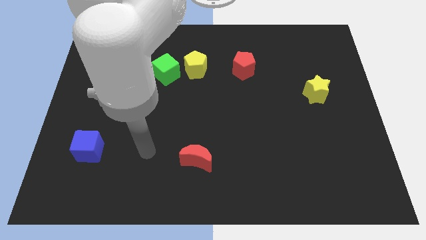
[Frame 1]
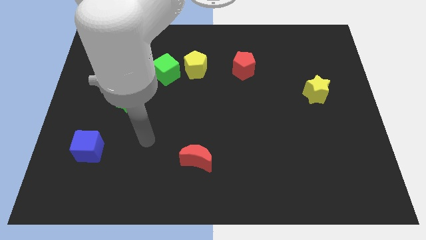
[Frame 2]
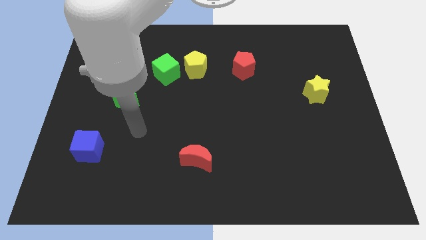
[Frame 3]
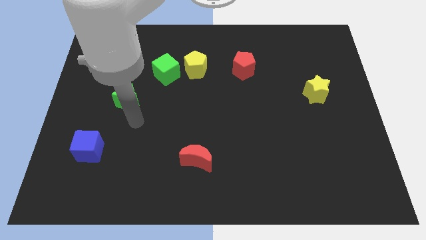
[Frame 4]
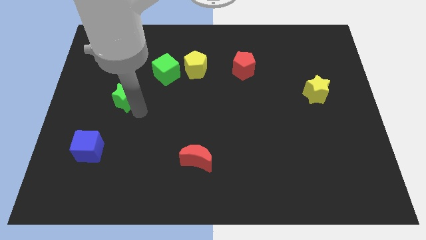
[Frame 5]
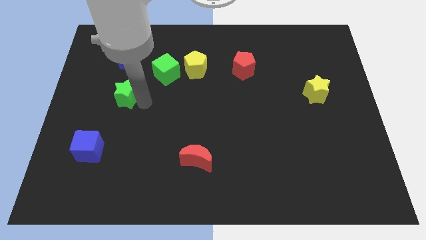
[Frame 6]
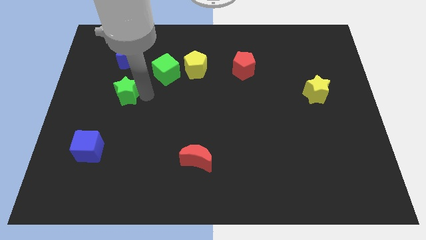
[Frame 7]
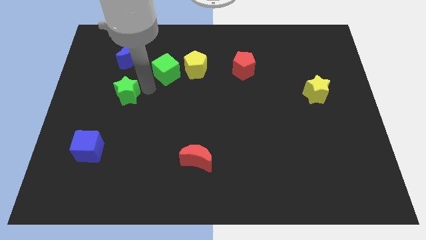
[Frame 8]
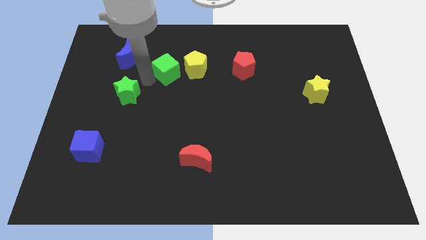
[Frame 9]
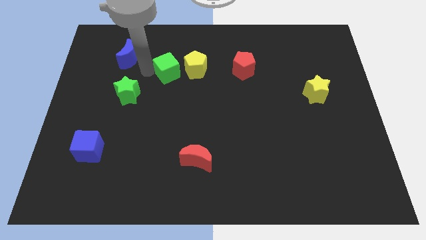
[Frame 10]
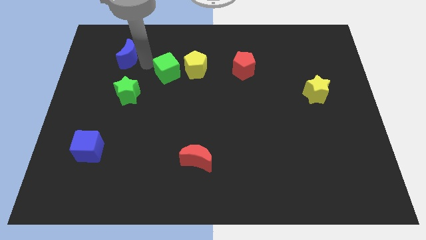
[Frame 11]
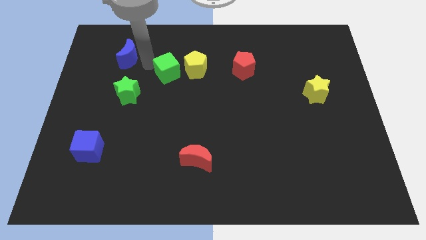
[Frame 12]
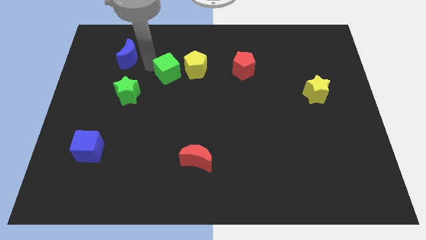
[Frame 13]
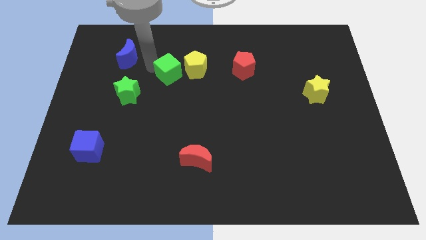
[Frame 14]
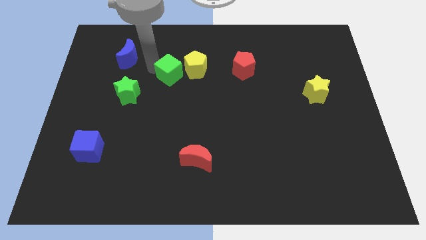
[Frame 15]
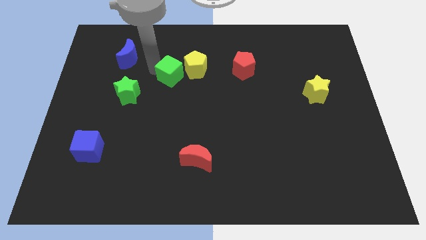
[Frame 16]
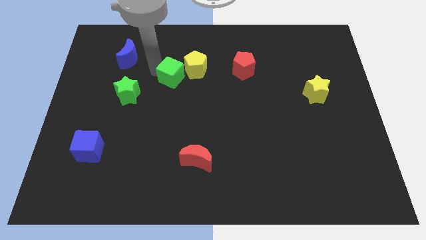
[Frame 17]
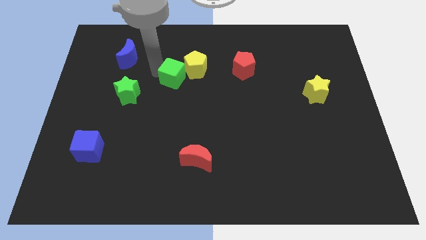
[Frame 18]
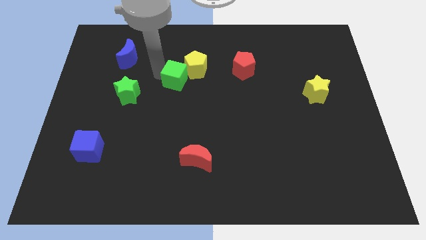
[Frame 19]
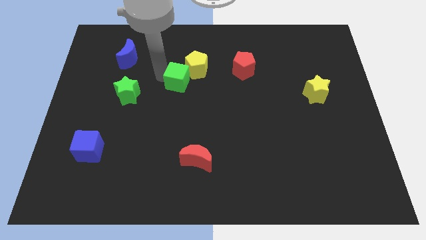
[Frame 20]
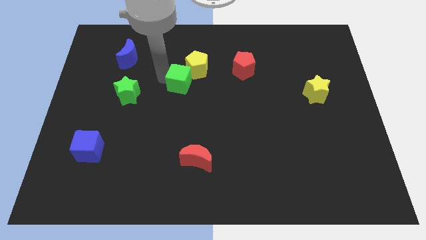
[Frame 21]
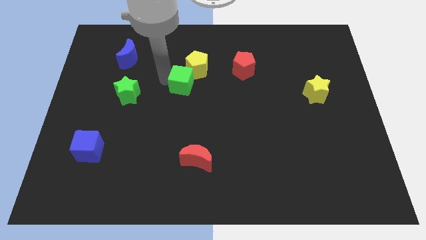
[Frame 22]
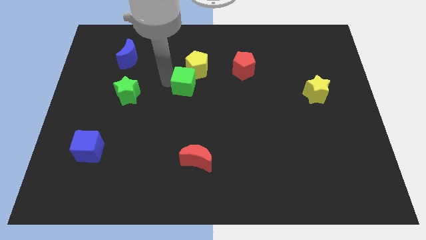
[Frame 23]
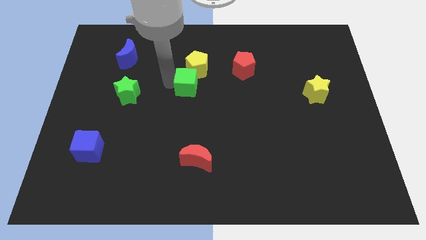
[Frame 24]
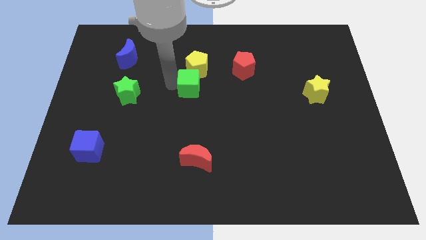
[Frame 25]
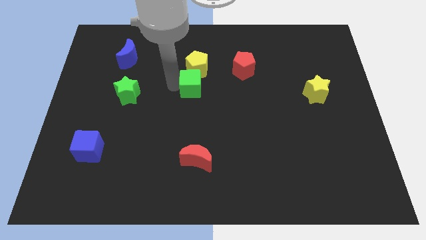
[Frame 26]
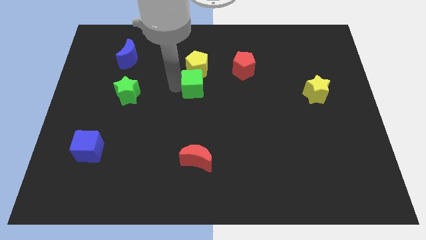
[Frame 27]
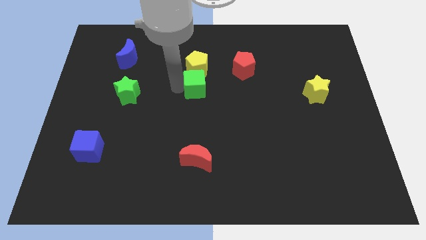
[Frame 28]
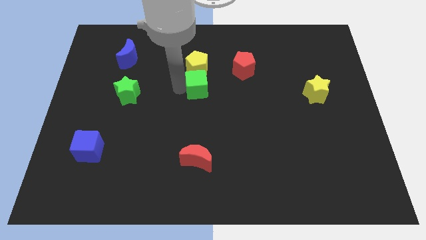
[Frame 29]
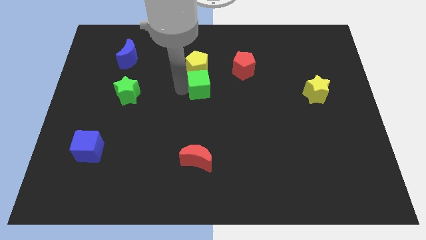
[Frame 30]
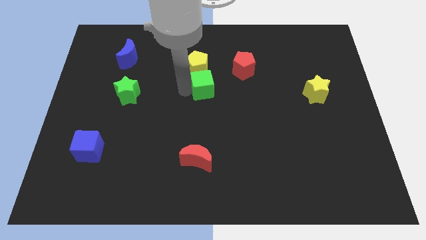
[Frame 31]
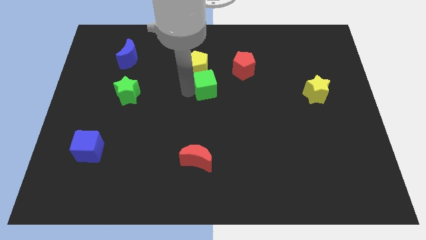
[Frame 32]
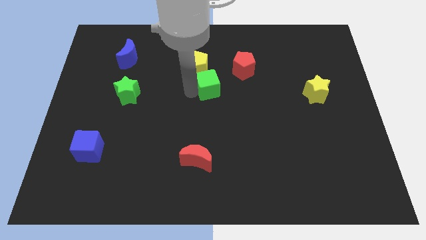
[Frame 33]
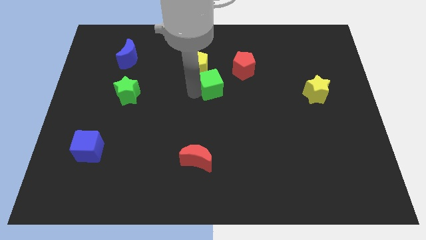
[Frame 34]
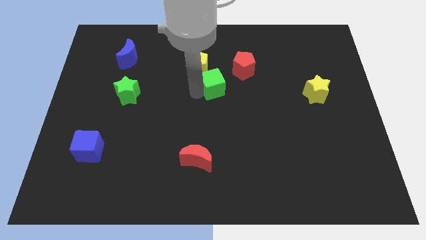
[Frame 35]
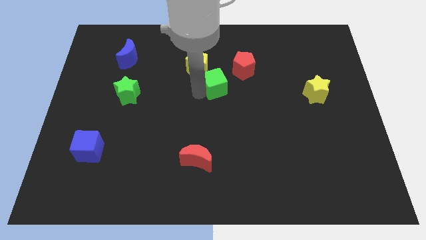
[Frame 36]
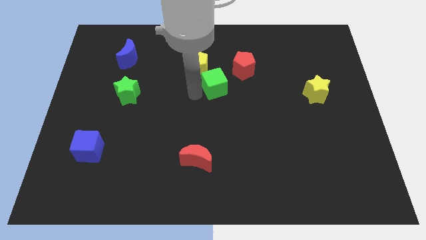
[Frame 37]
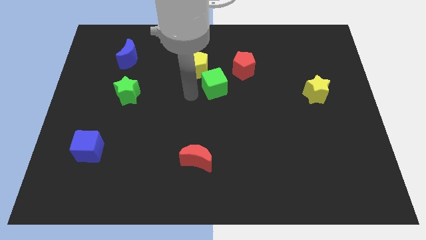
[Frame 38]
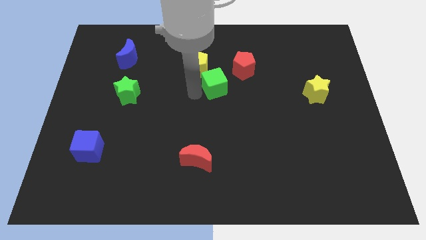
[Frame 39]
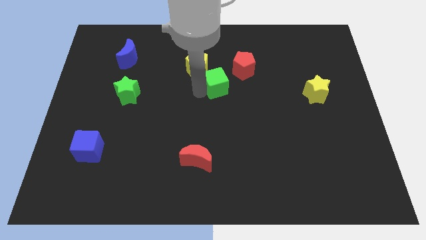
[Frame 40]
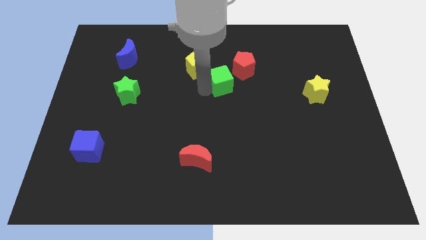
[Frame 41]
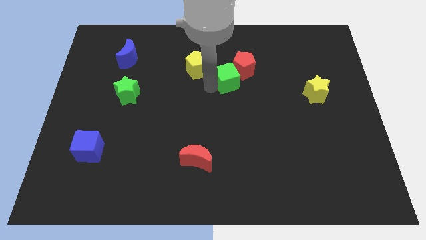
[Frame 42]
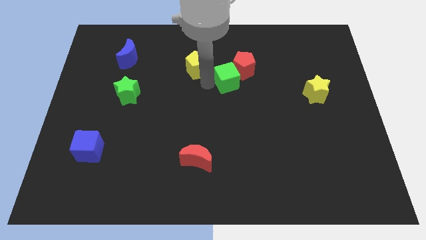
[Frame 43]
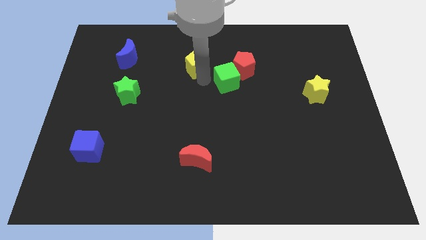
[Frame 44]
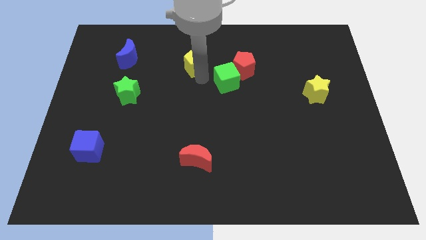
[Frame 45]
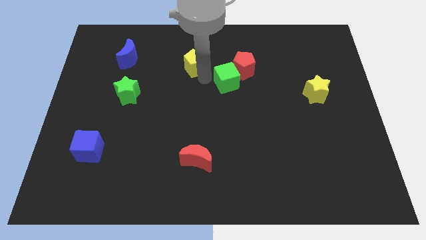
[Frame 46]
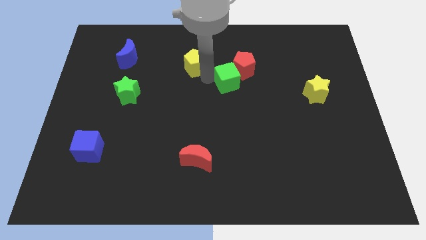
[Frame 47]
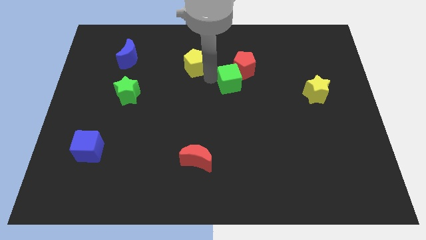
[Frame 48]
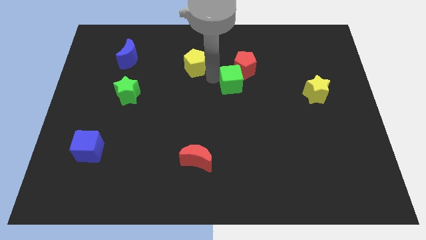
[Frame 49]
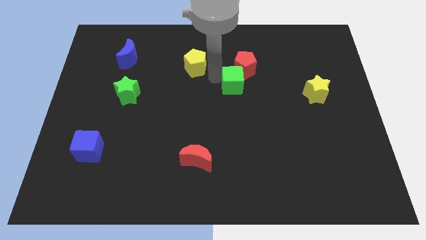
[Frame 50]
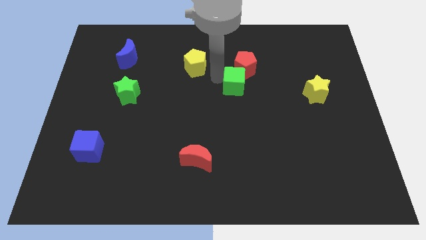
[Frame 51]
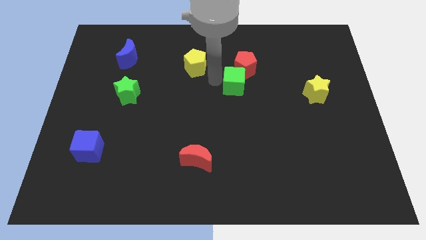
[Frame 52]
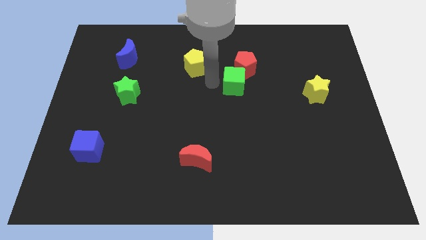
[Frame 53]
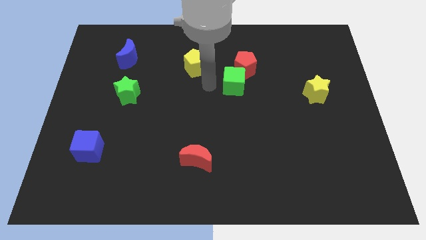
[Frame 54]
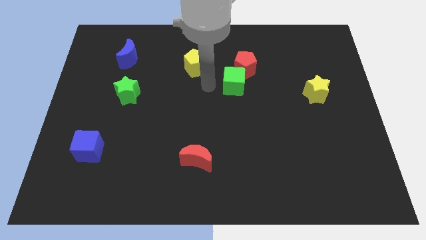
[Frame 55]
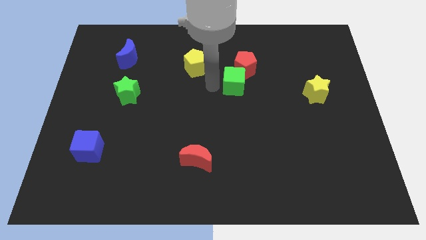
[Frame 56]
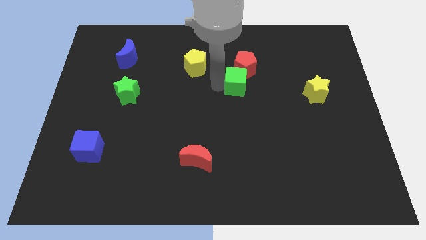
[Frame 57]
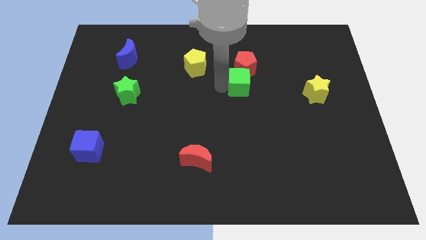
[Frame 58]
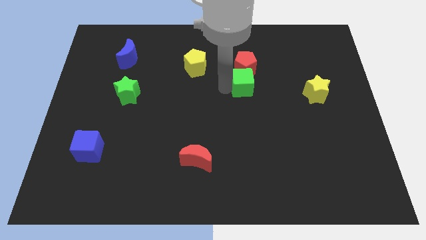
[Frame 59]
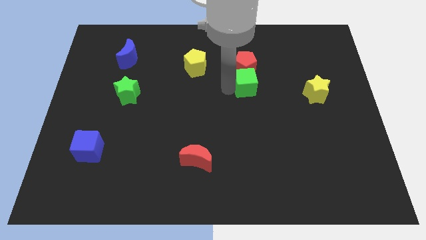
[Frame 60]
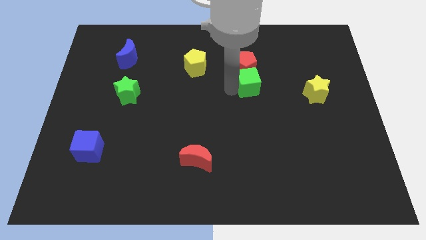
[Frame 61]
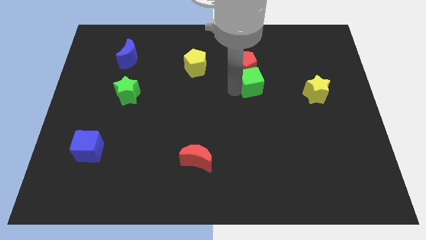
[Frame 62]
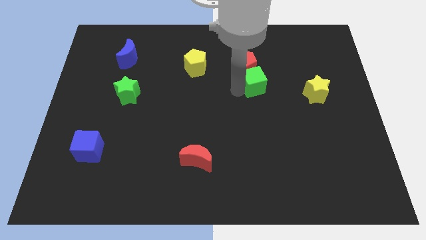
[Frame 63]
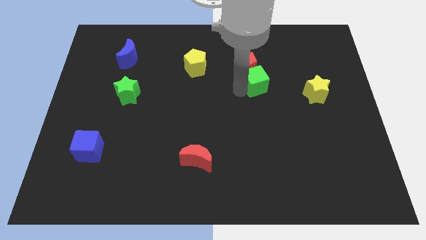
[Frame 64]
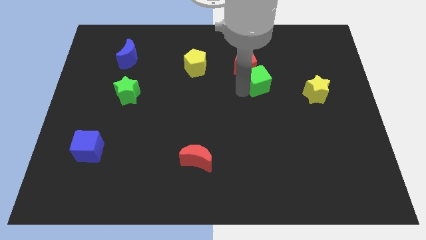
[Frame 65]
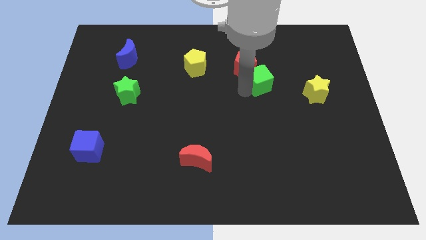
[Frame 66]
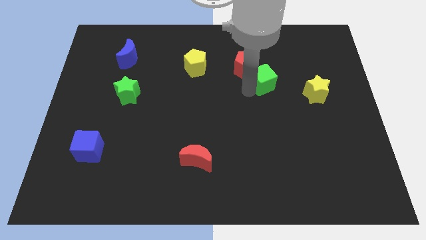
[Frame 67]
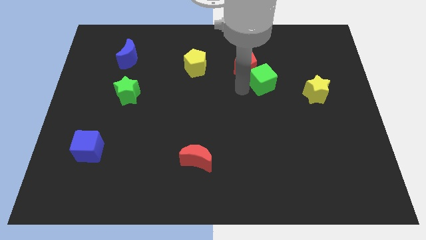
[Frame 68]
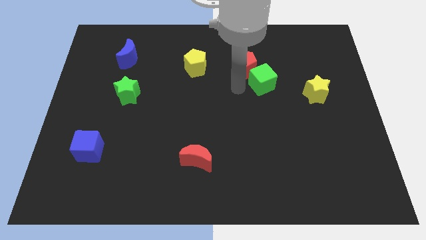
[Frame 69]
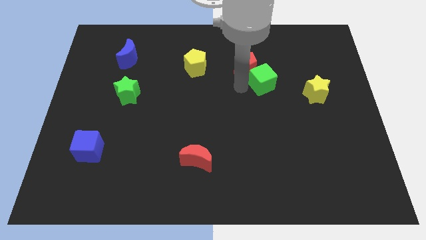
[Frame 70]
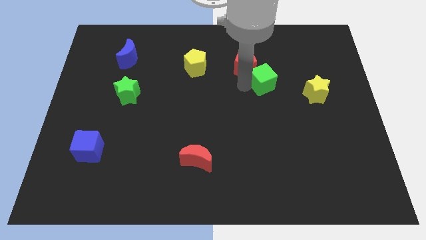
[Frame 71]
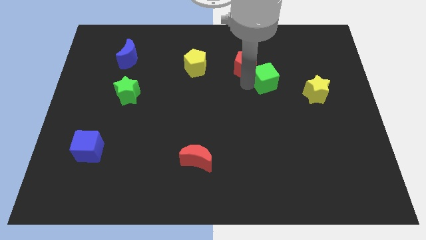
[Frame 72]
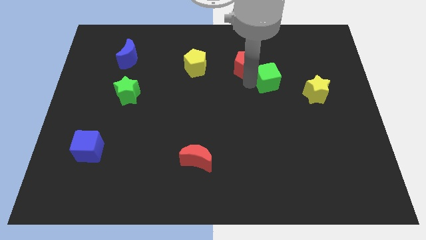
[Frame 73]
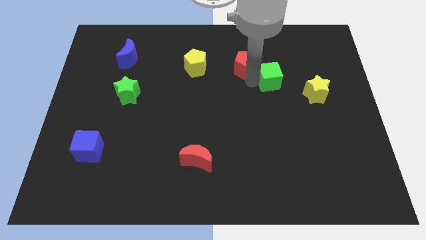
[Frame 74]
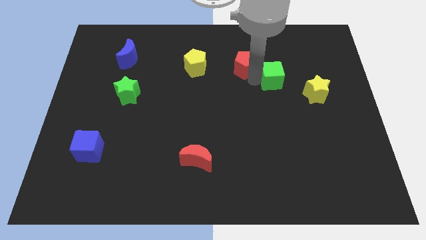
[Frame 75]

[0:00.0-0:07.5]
put the green cube to the top left side of the yellow star

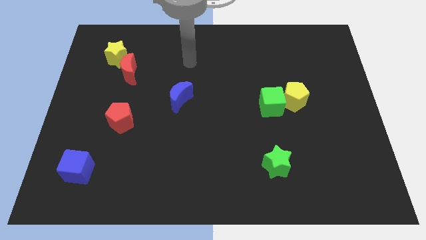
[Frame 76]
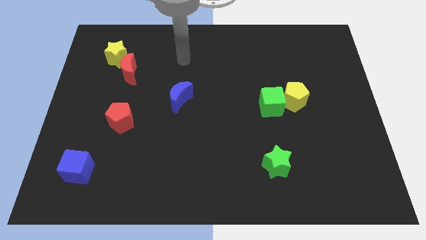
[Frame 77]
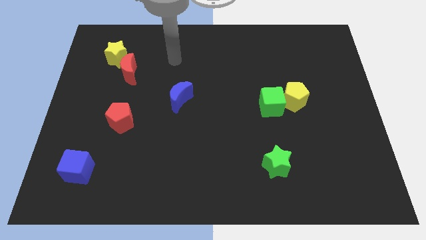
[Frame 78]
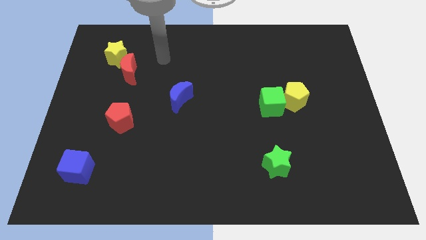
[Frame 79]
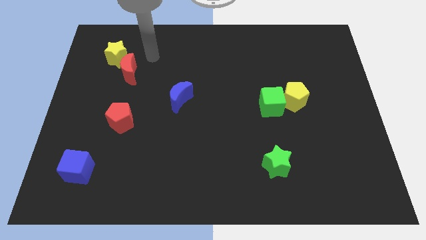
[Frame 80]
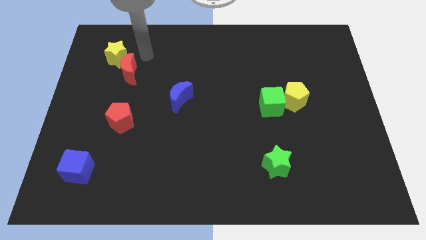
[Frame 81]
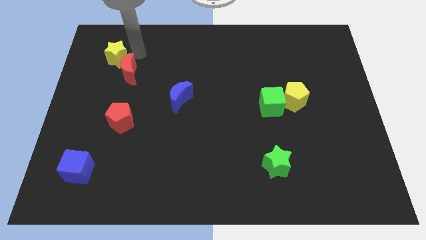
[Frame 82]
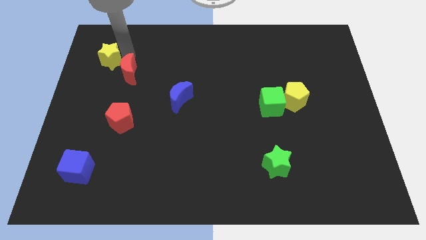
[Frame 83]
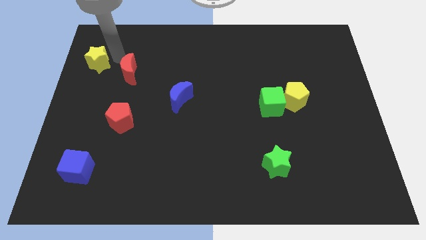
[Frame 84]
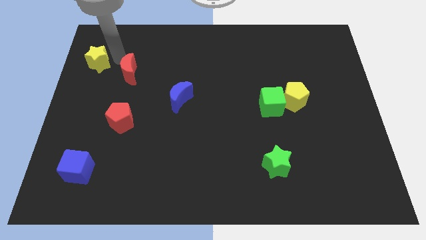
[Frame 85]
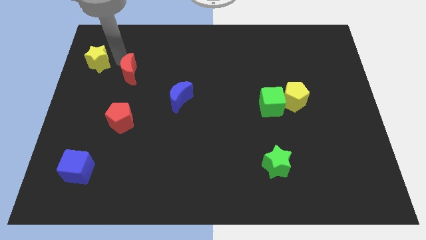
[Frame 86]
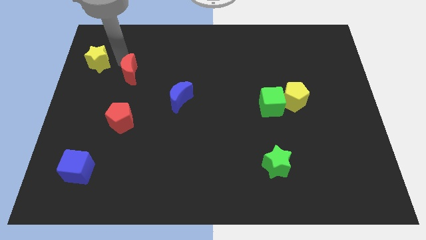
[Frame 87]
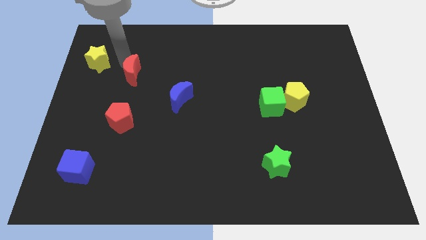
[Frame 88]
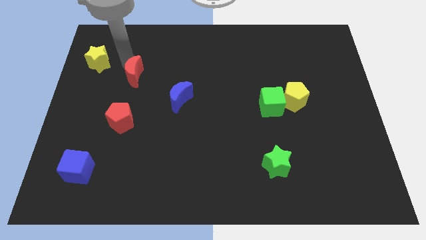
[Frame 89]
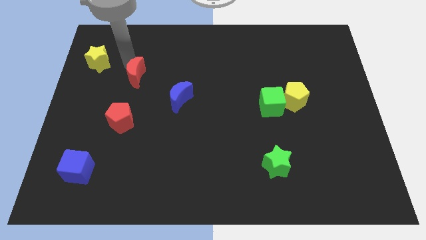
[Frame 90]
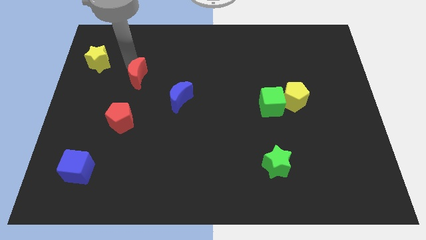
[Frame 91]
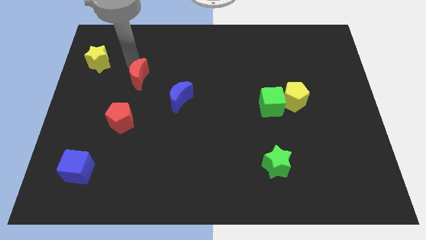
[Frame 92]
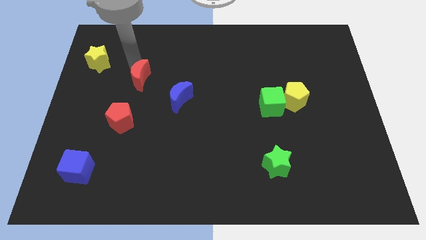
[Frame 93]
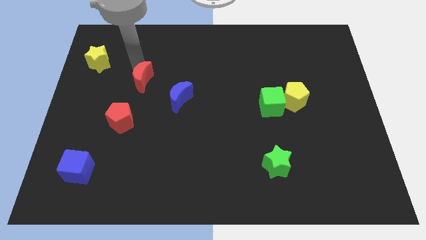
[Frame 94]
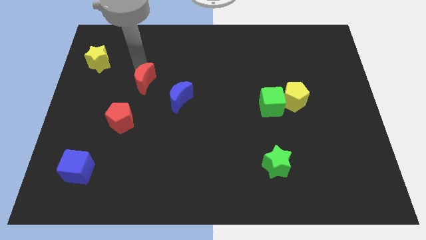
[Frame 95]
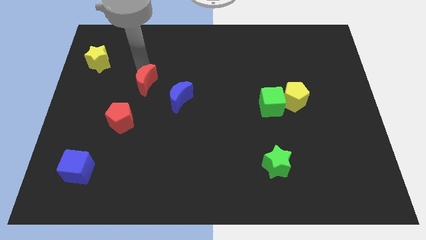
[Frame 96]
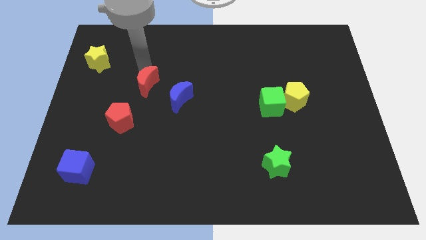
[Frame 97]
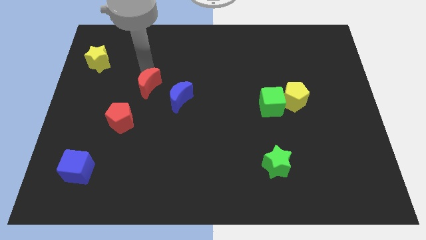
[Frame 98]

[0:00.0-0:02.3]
push the red moon to the top right side of the red pentagon
